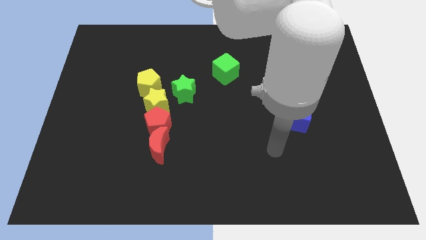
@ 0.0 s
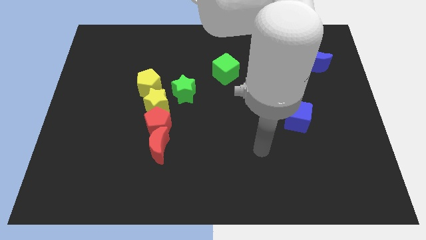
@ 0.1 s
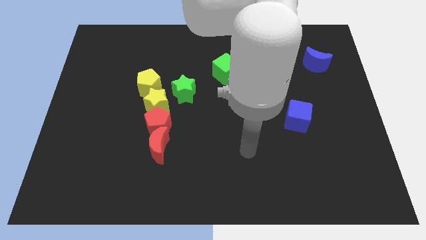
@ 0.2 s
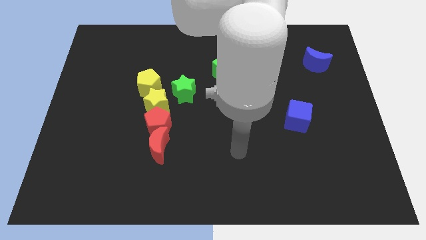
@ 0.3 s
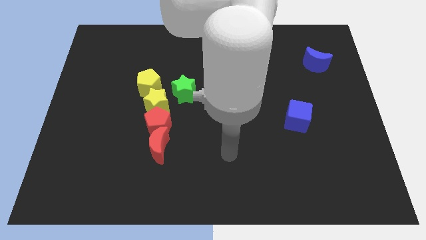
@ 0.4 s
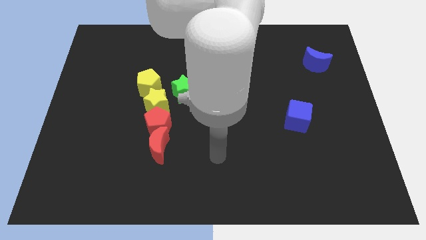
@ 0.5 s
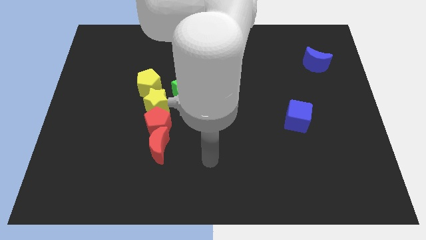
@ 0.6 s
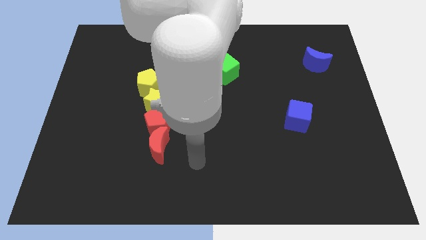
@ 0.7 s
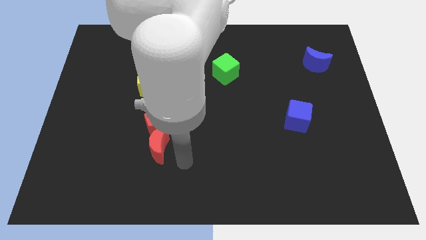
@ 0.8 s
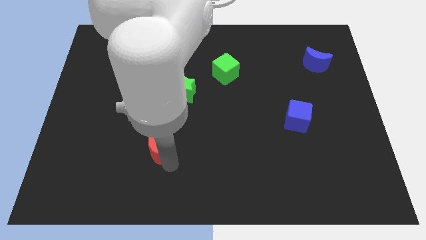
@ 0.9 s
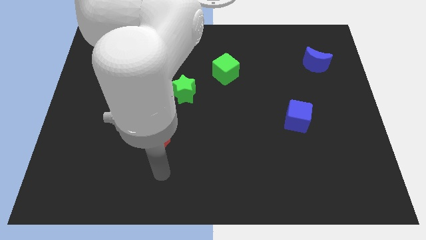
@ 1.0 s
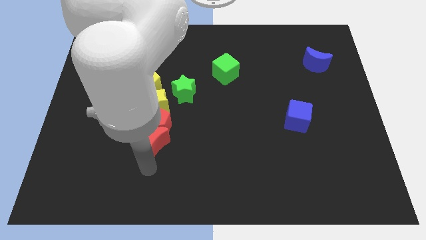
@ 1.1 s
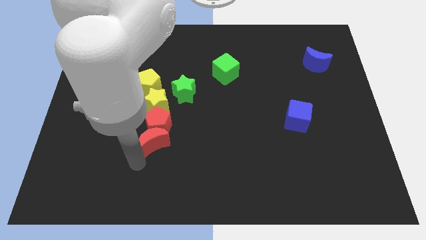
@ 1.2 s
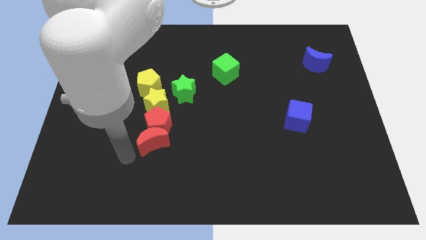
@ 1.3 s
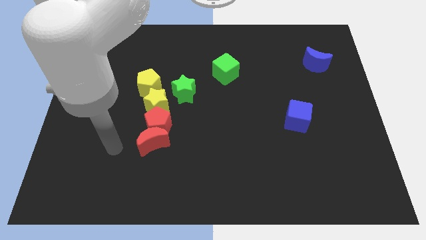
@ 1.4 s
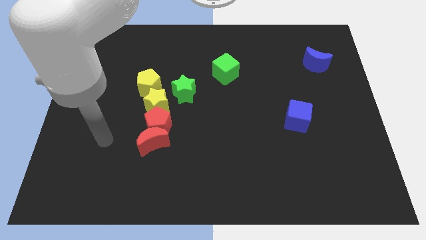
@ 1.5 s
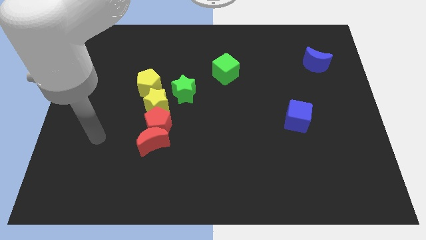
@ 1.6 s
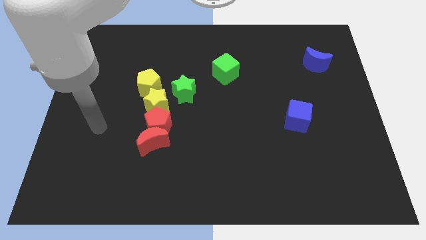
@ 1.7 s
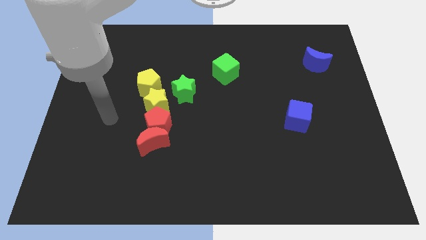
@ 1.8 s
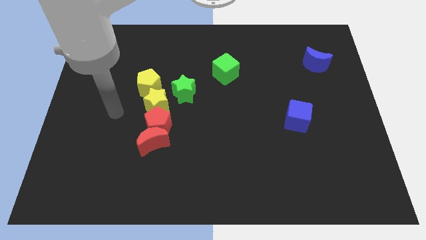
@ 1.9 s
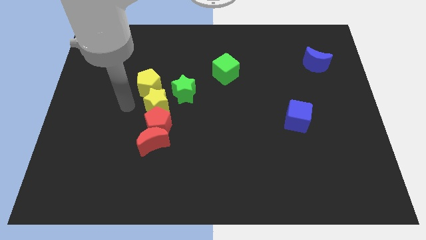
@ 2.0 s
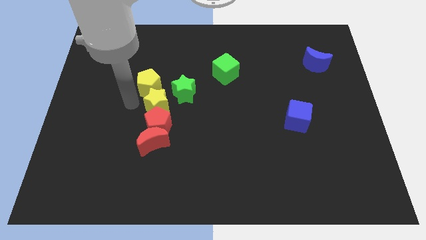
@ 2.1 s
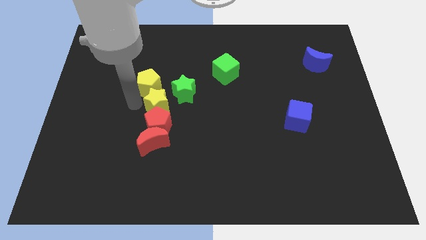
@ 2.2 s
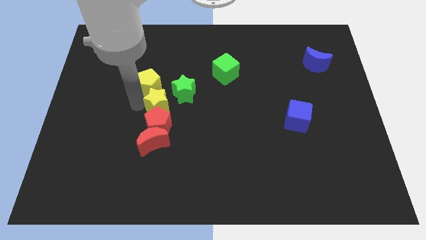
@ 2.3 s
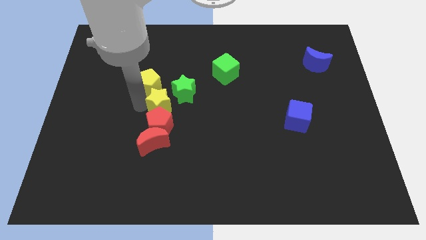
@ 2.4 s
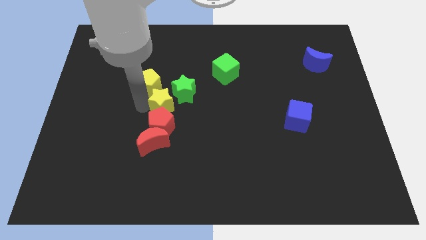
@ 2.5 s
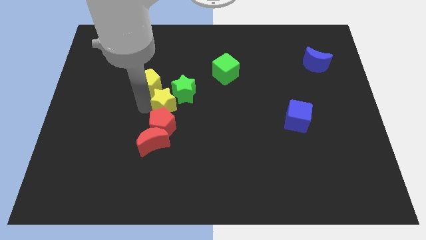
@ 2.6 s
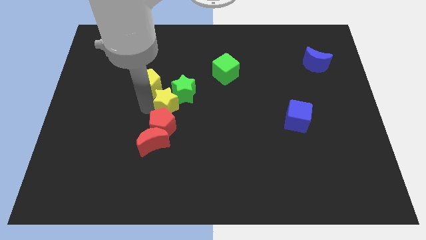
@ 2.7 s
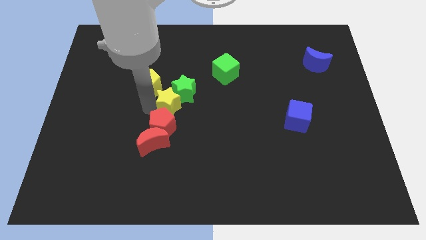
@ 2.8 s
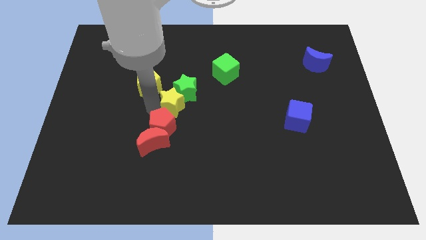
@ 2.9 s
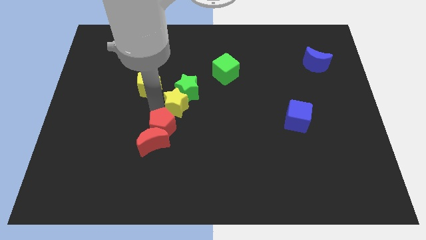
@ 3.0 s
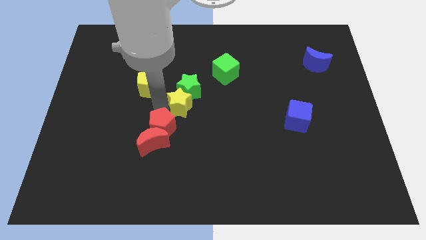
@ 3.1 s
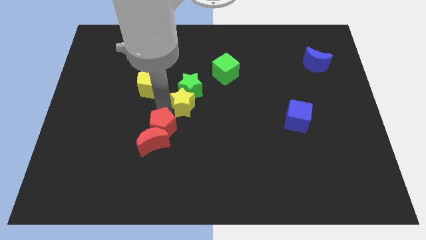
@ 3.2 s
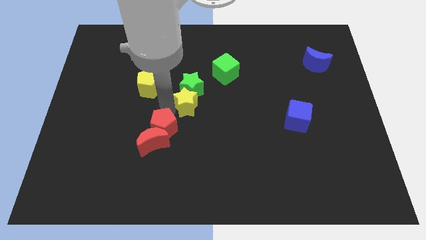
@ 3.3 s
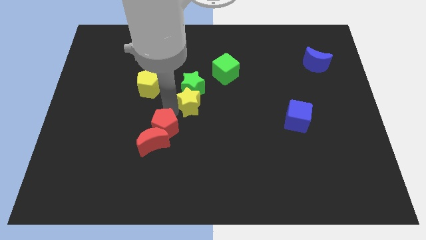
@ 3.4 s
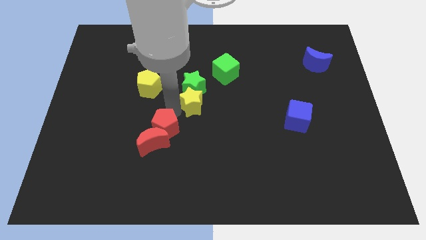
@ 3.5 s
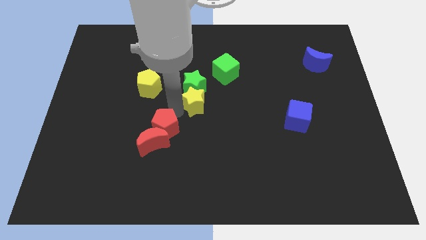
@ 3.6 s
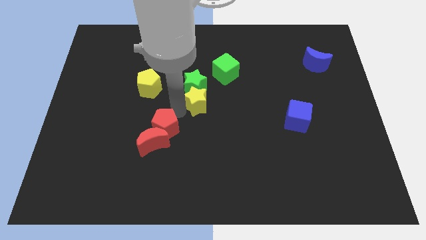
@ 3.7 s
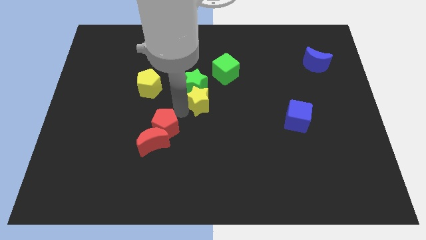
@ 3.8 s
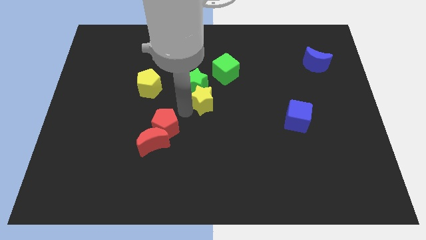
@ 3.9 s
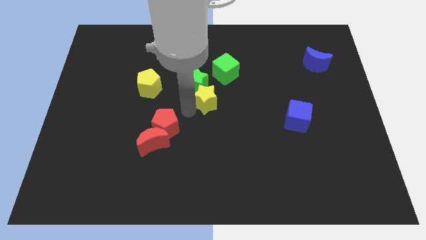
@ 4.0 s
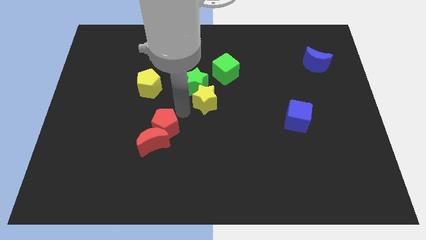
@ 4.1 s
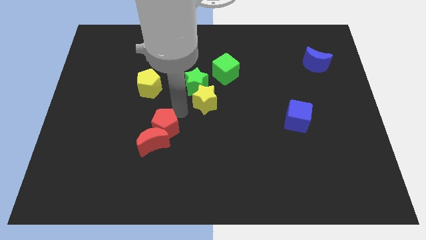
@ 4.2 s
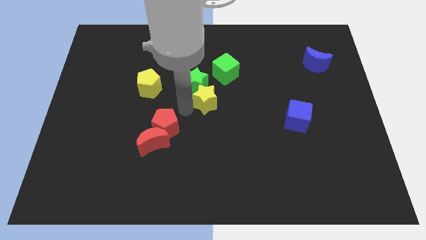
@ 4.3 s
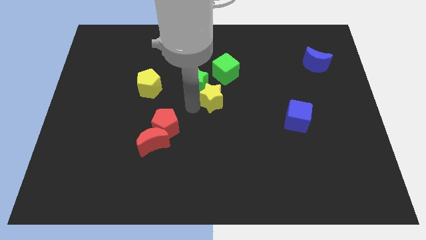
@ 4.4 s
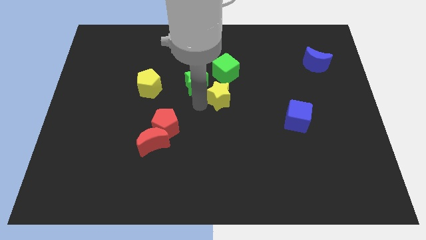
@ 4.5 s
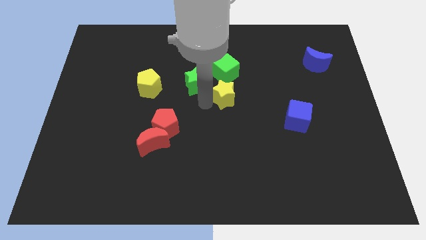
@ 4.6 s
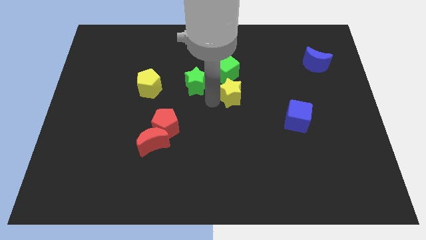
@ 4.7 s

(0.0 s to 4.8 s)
move the yellow star diagonally down and to the right of the green cube

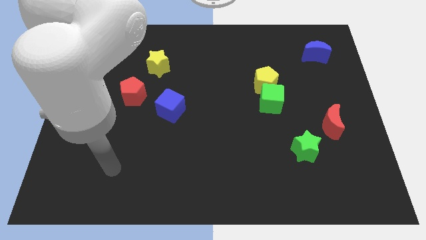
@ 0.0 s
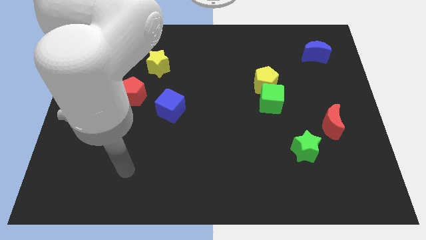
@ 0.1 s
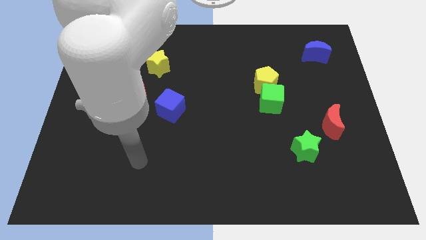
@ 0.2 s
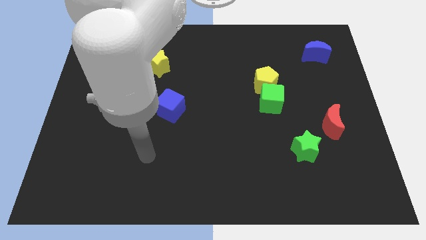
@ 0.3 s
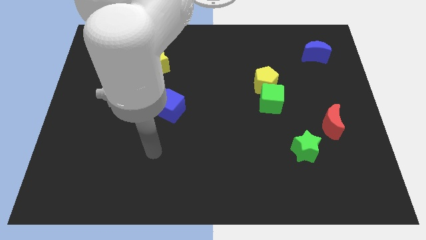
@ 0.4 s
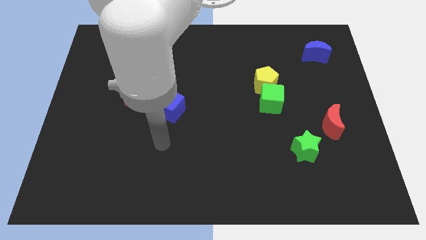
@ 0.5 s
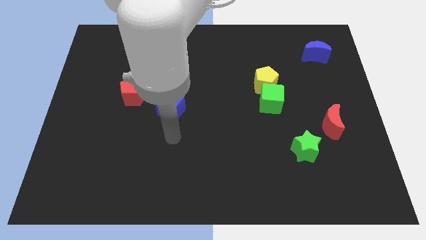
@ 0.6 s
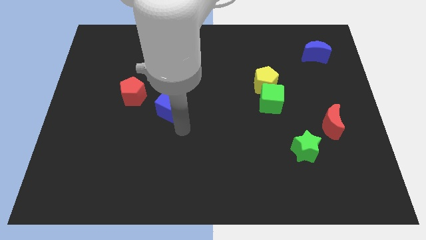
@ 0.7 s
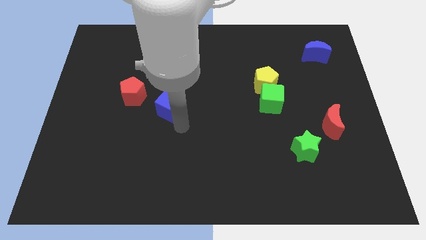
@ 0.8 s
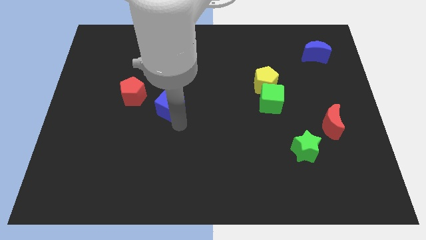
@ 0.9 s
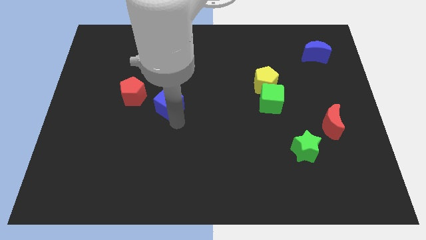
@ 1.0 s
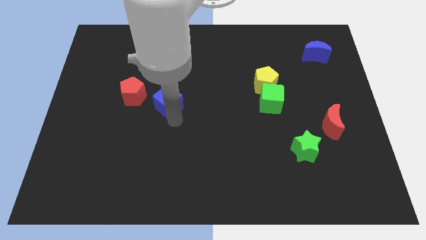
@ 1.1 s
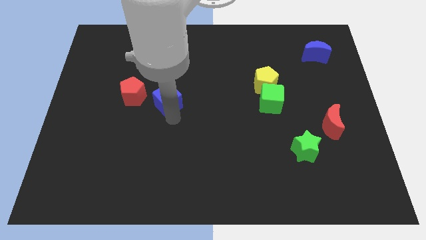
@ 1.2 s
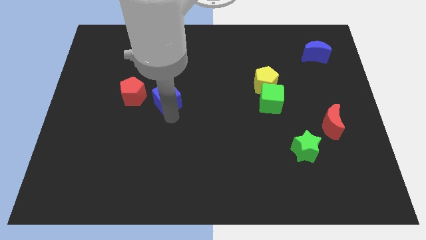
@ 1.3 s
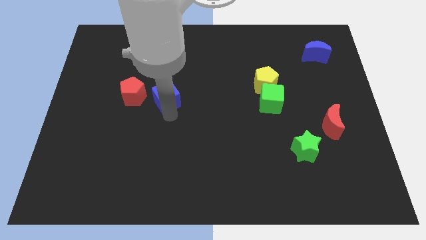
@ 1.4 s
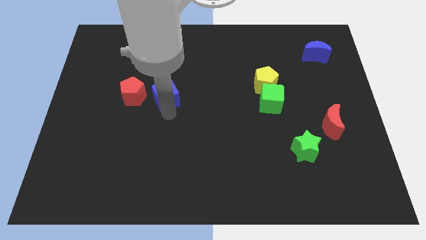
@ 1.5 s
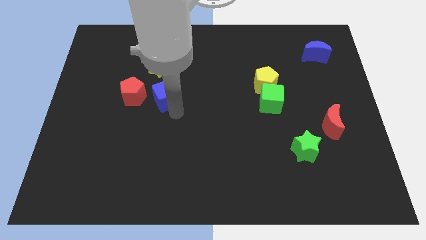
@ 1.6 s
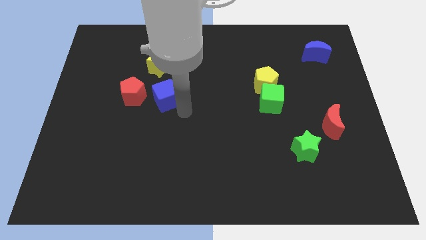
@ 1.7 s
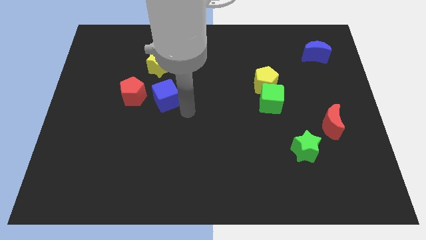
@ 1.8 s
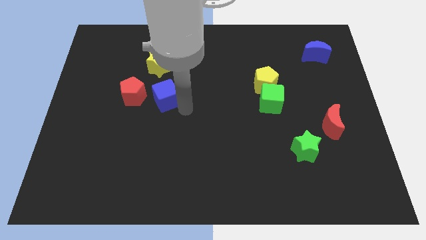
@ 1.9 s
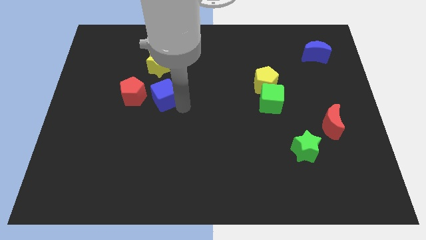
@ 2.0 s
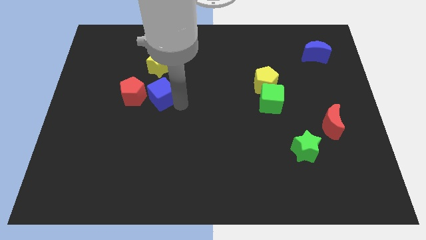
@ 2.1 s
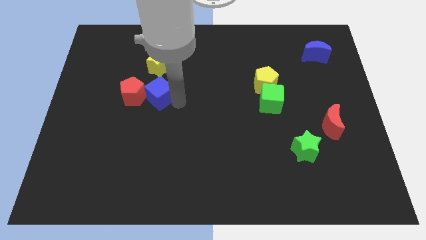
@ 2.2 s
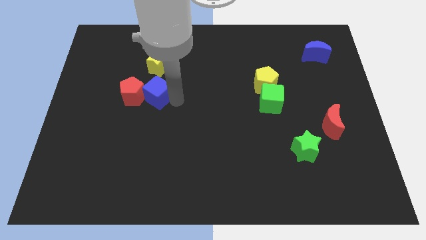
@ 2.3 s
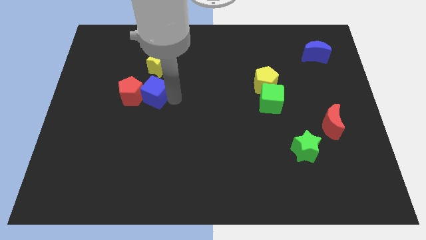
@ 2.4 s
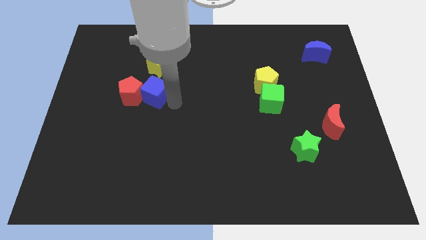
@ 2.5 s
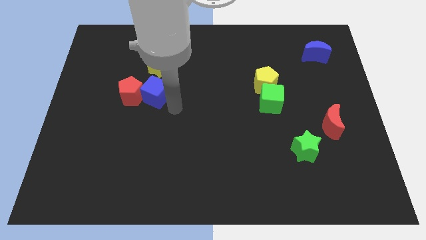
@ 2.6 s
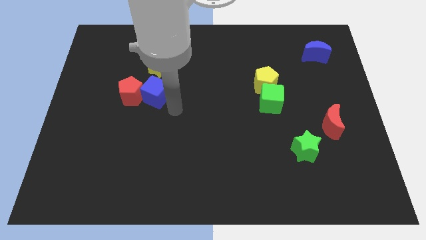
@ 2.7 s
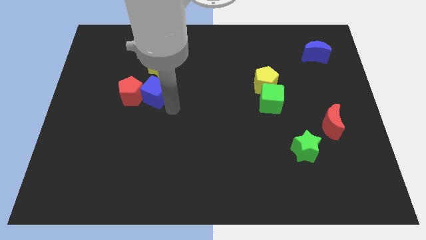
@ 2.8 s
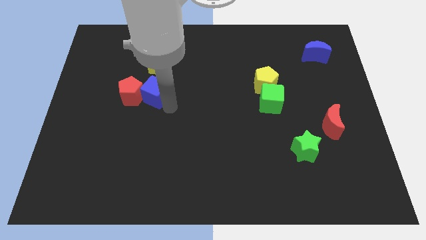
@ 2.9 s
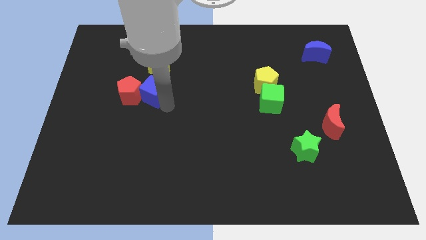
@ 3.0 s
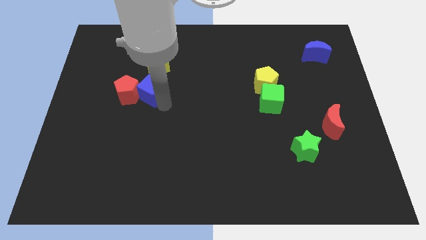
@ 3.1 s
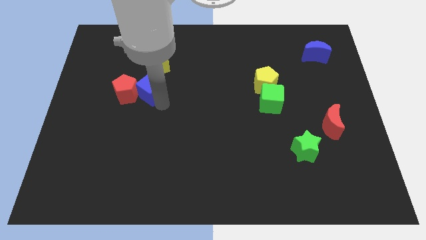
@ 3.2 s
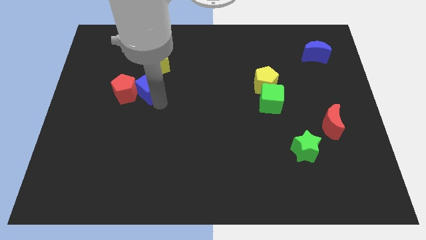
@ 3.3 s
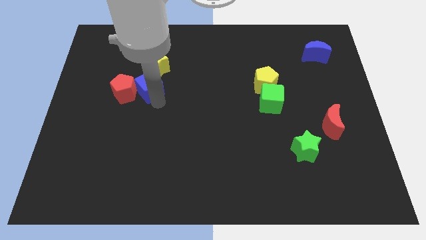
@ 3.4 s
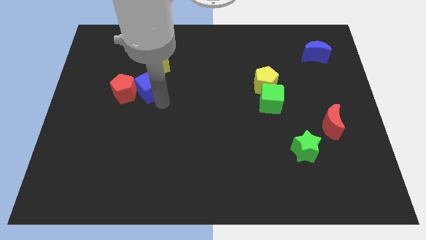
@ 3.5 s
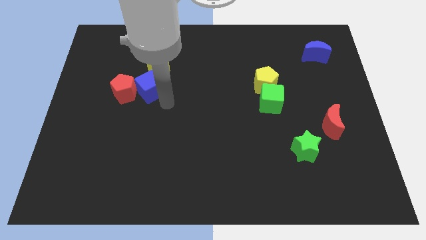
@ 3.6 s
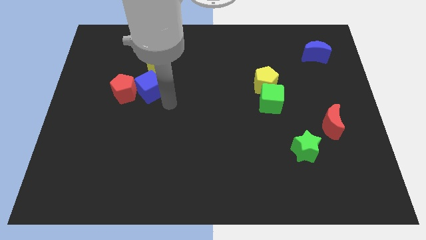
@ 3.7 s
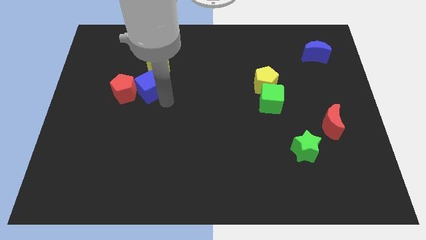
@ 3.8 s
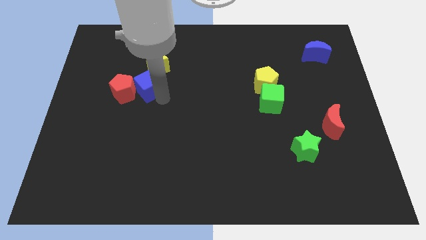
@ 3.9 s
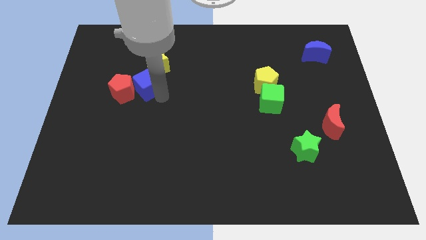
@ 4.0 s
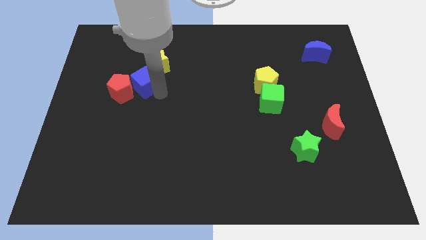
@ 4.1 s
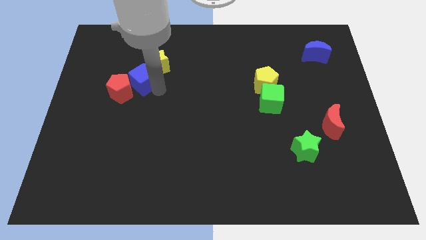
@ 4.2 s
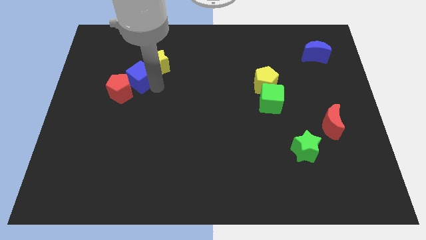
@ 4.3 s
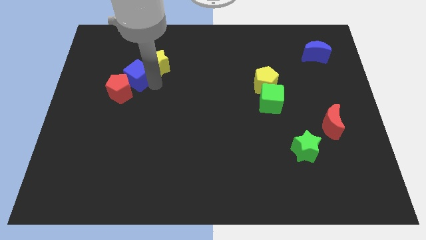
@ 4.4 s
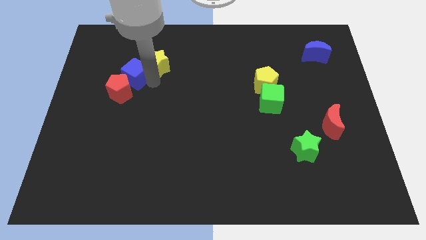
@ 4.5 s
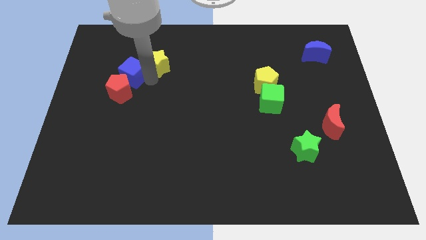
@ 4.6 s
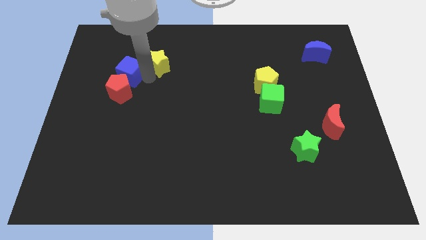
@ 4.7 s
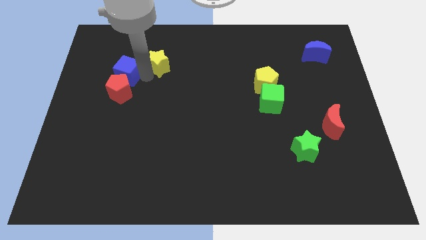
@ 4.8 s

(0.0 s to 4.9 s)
move the blue cube to the top left side of the red pentagon
